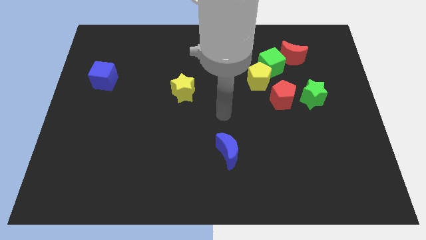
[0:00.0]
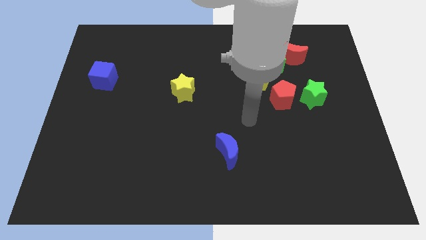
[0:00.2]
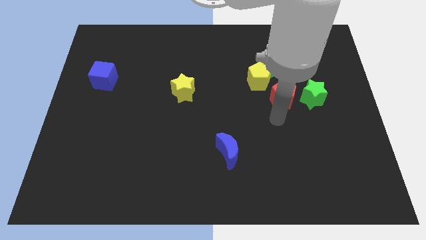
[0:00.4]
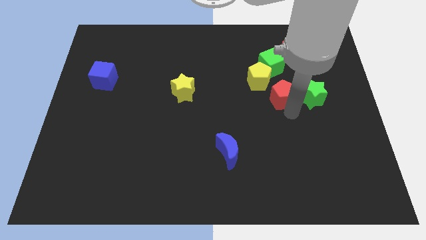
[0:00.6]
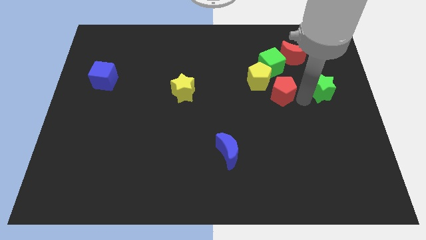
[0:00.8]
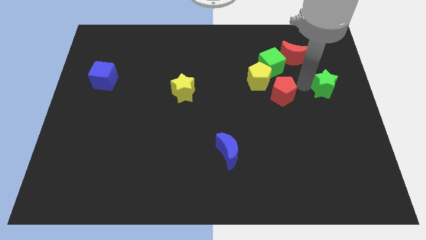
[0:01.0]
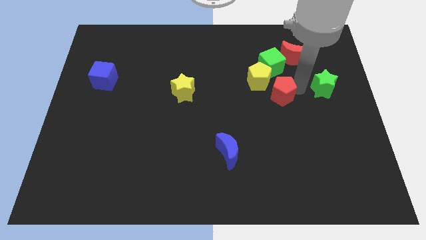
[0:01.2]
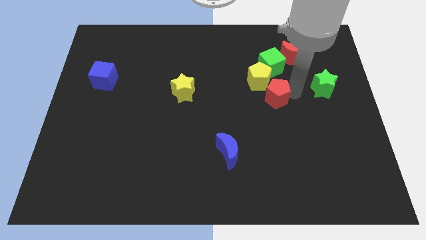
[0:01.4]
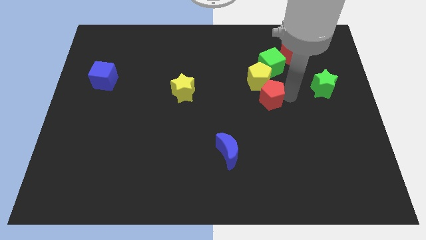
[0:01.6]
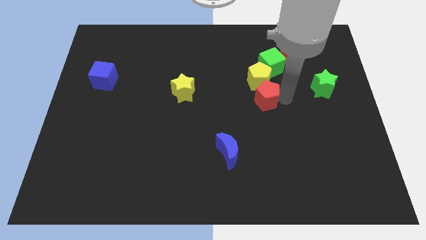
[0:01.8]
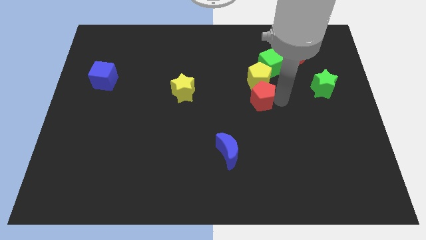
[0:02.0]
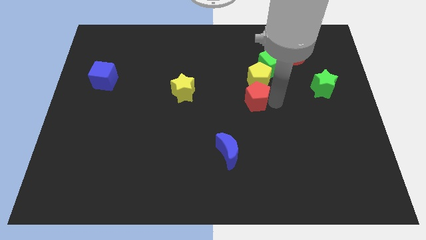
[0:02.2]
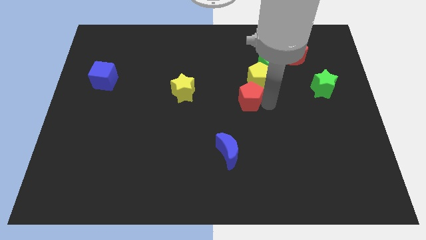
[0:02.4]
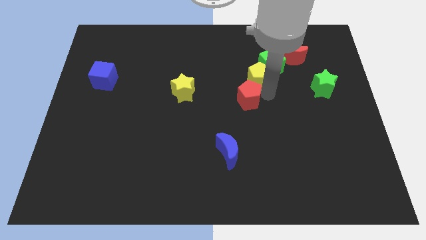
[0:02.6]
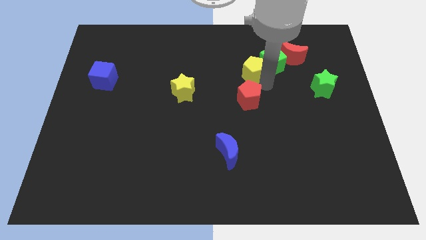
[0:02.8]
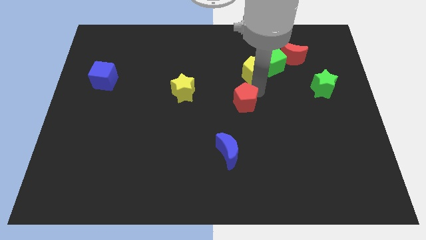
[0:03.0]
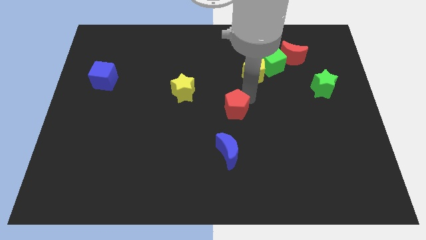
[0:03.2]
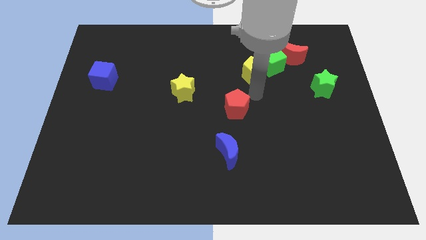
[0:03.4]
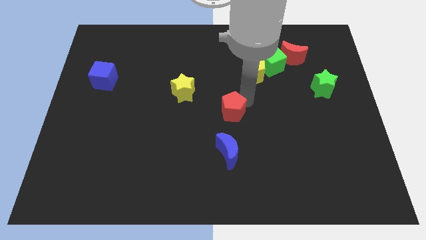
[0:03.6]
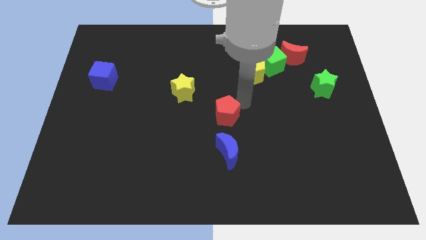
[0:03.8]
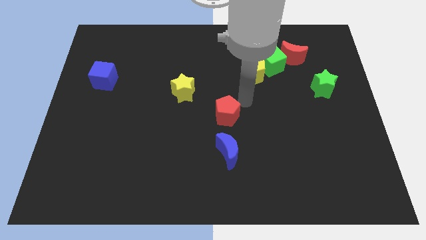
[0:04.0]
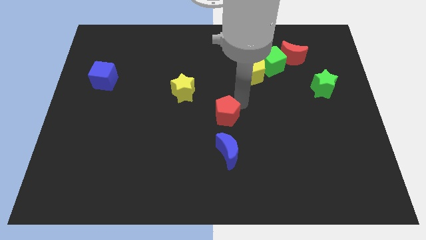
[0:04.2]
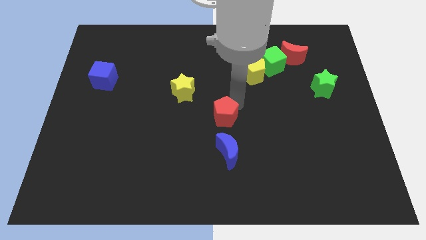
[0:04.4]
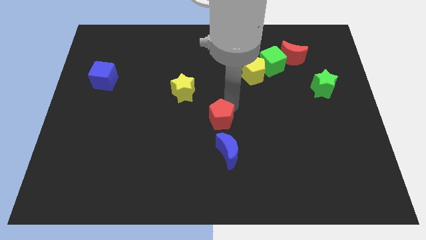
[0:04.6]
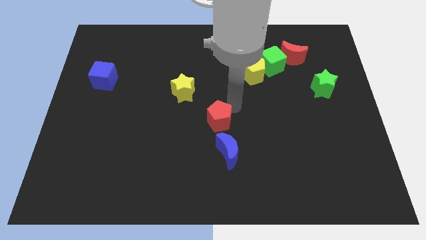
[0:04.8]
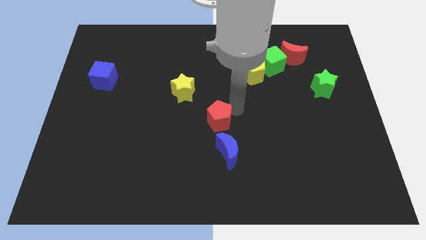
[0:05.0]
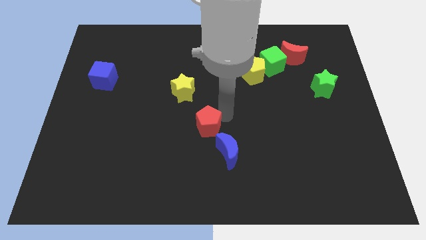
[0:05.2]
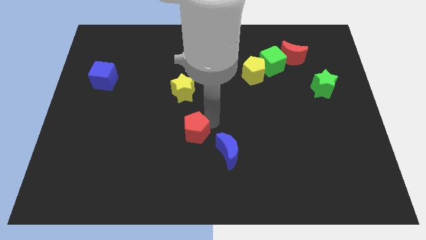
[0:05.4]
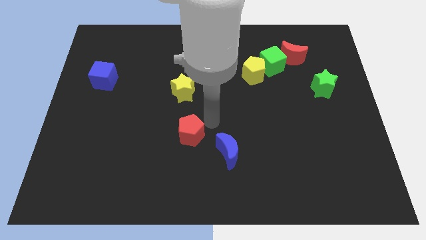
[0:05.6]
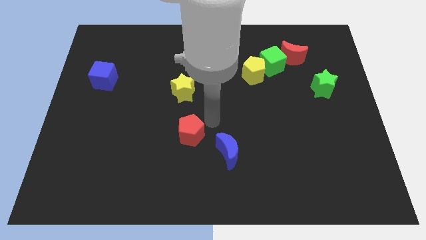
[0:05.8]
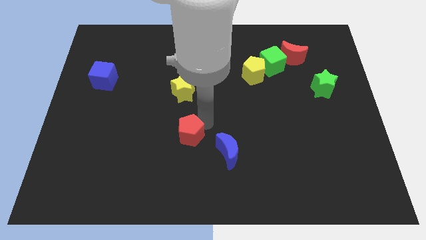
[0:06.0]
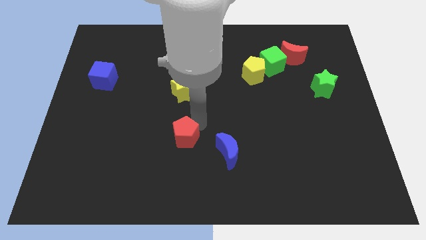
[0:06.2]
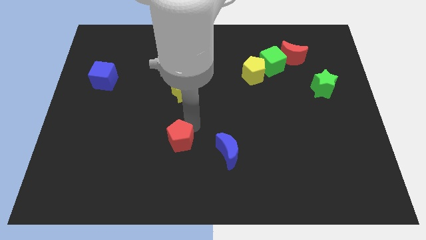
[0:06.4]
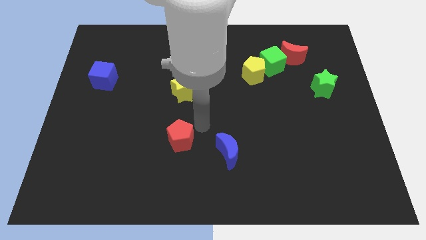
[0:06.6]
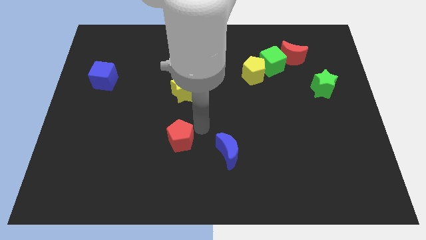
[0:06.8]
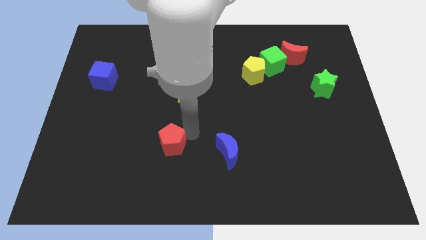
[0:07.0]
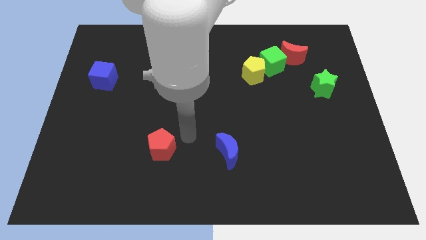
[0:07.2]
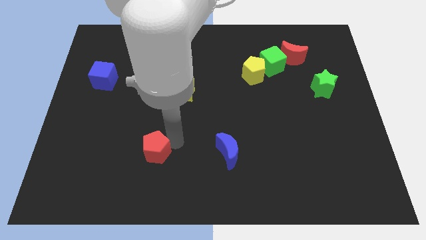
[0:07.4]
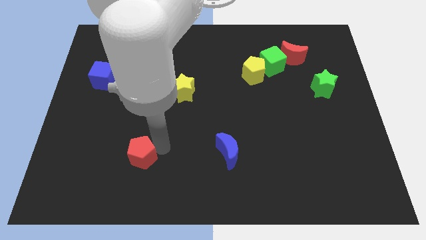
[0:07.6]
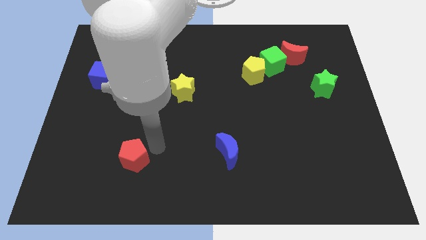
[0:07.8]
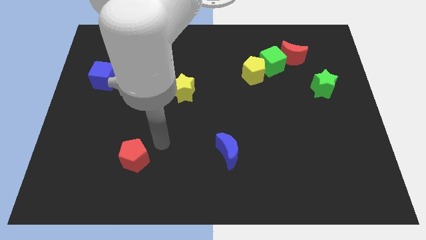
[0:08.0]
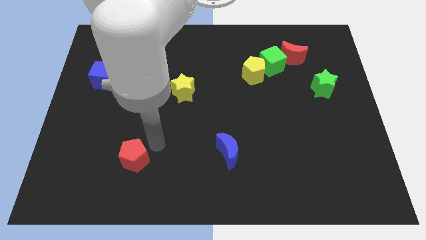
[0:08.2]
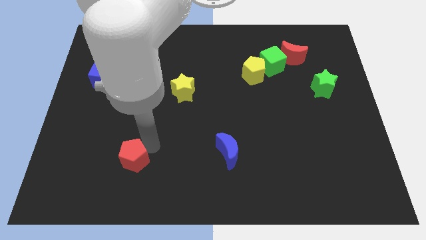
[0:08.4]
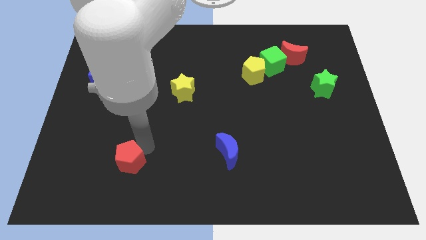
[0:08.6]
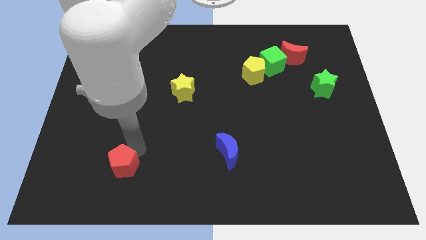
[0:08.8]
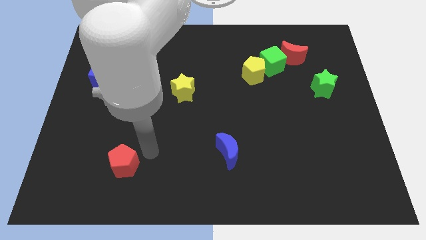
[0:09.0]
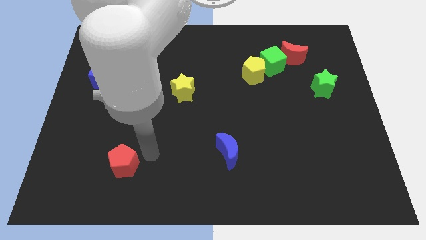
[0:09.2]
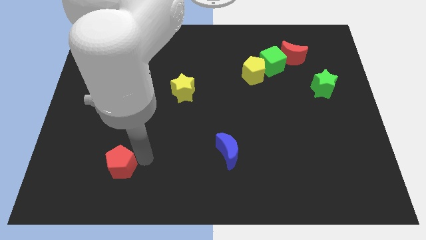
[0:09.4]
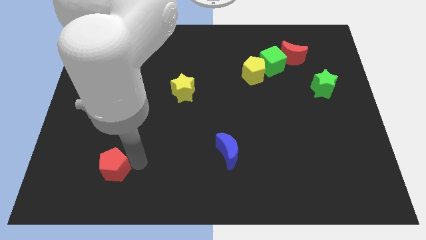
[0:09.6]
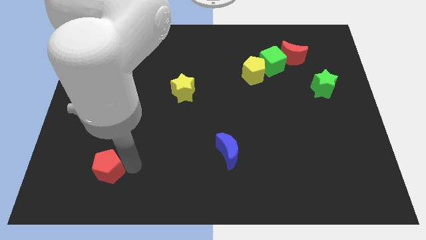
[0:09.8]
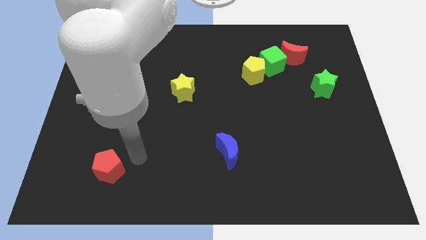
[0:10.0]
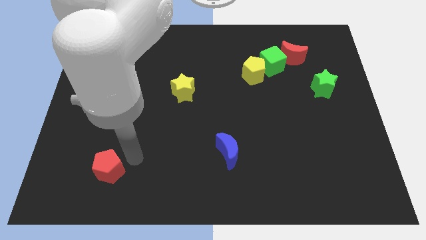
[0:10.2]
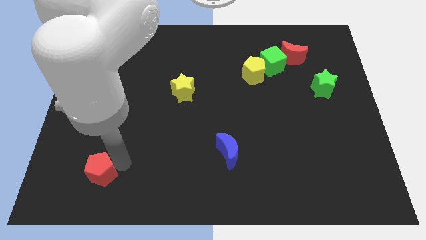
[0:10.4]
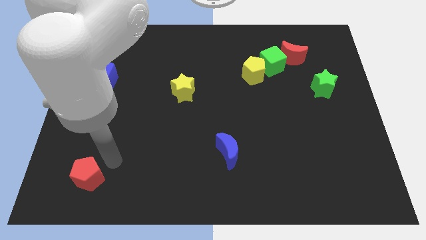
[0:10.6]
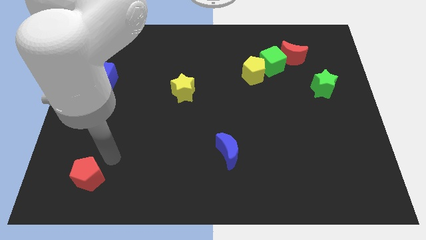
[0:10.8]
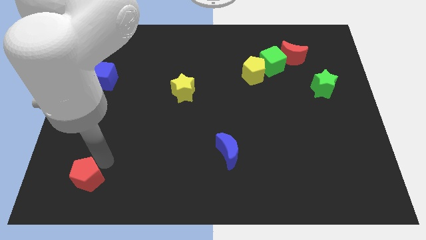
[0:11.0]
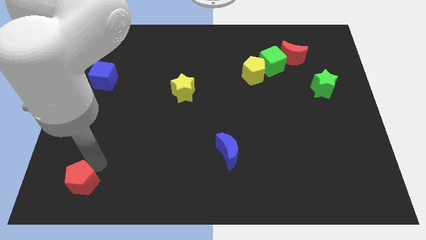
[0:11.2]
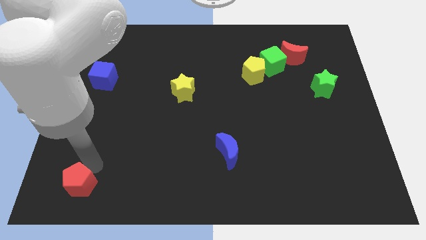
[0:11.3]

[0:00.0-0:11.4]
put the red pentagon to the bottom left corner
